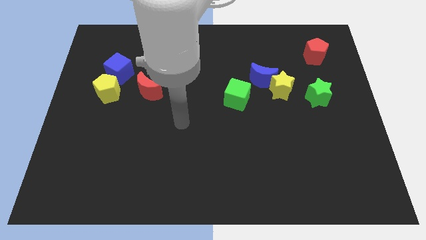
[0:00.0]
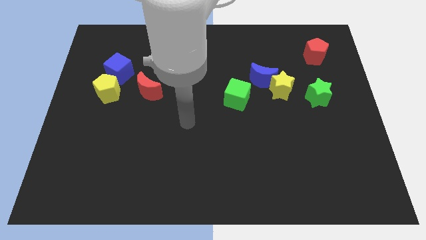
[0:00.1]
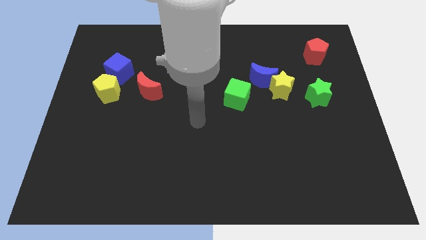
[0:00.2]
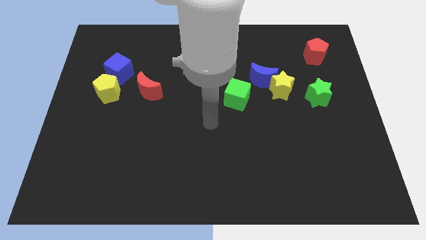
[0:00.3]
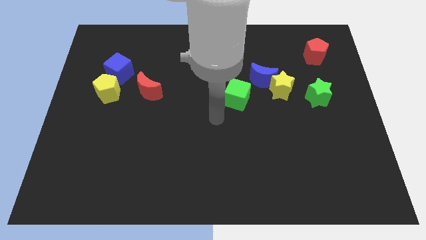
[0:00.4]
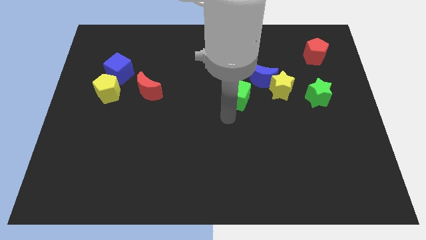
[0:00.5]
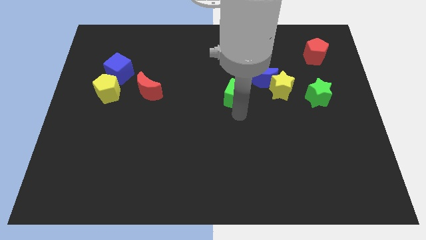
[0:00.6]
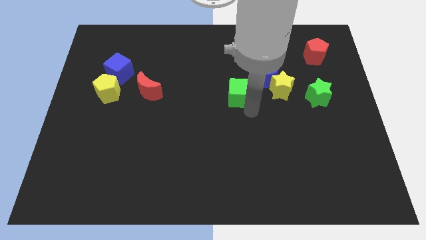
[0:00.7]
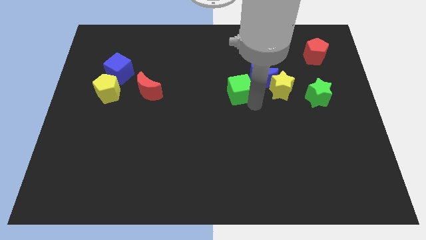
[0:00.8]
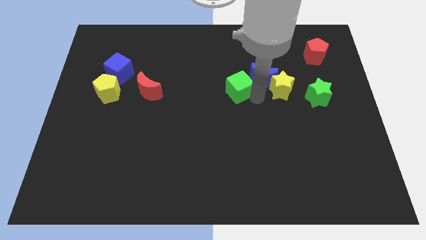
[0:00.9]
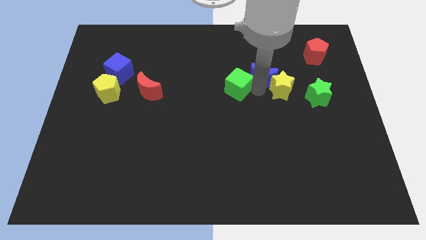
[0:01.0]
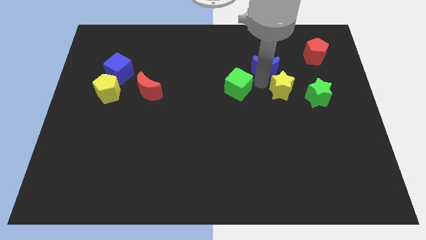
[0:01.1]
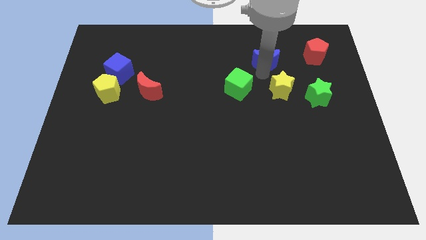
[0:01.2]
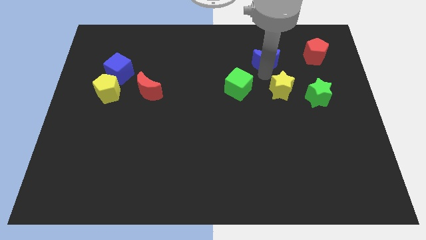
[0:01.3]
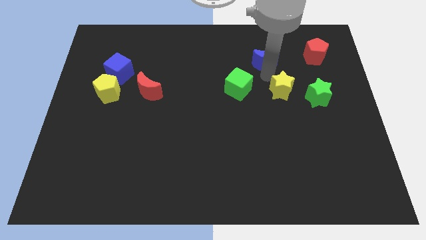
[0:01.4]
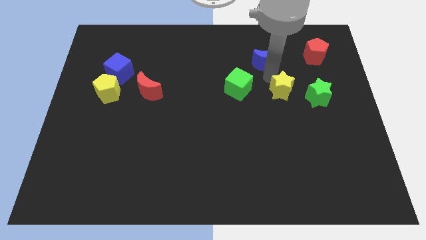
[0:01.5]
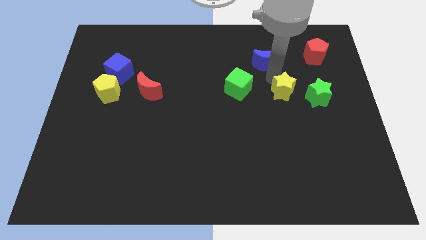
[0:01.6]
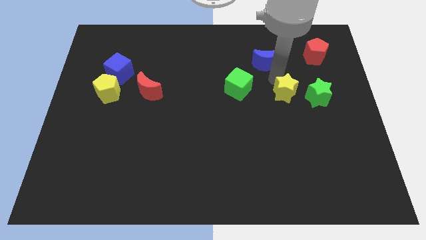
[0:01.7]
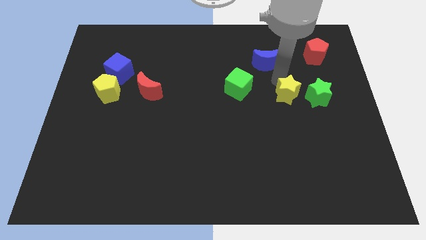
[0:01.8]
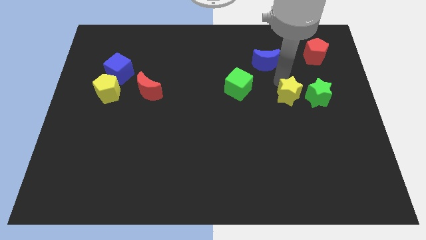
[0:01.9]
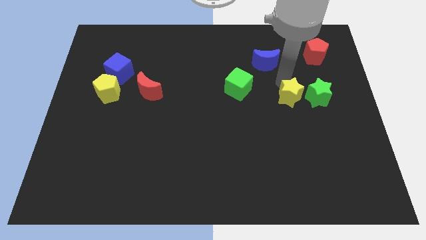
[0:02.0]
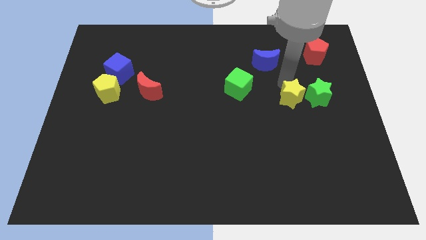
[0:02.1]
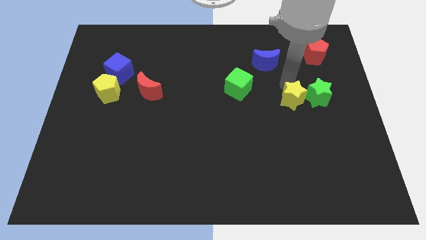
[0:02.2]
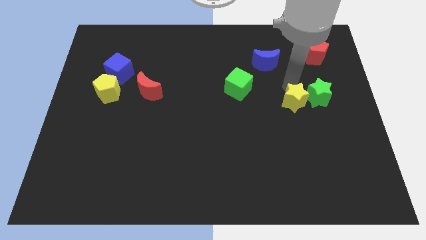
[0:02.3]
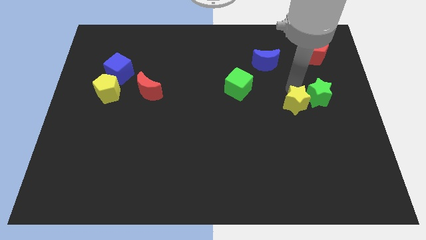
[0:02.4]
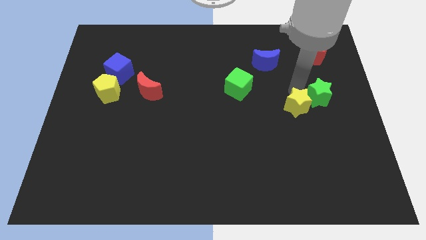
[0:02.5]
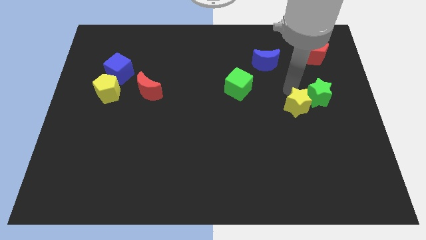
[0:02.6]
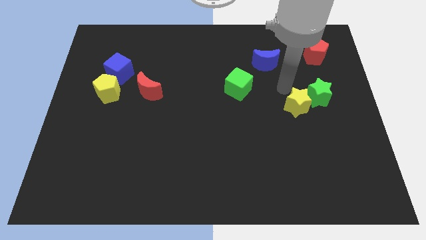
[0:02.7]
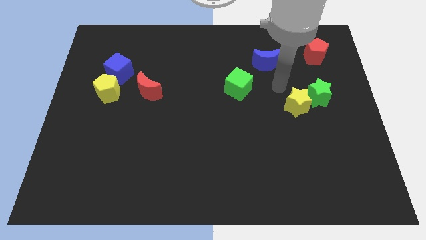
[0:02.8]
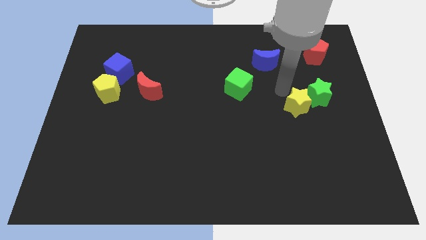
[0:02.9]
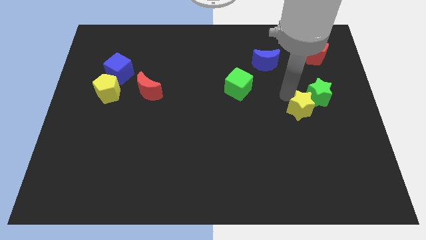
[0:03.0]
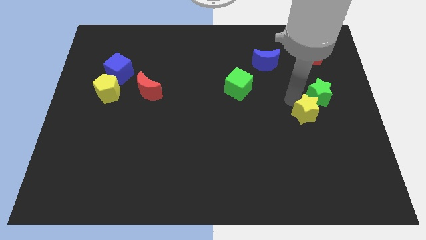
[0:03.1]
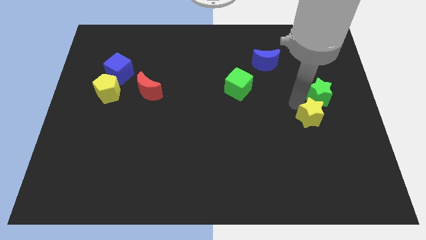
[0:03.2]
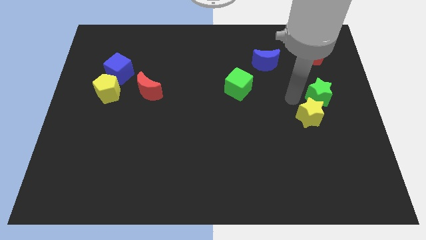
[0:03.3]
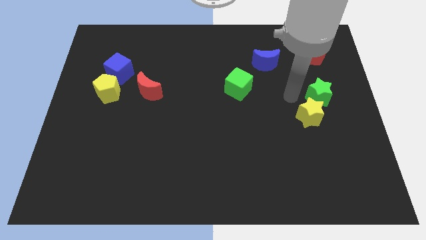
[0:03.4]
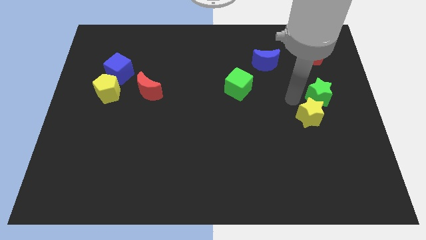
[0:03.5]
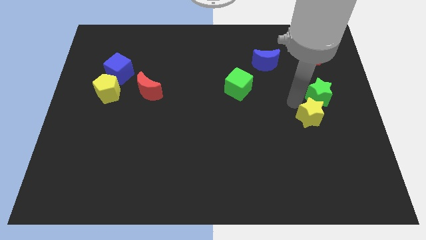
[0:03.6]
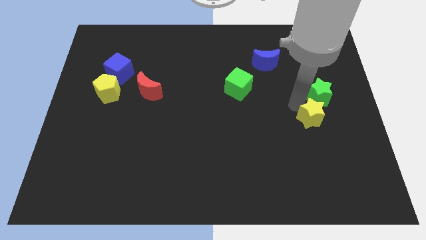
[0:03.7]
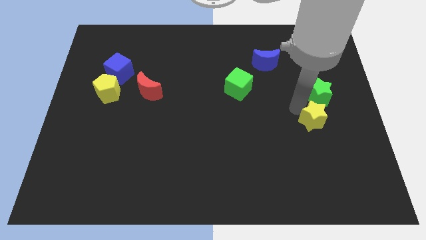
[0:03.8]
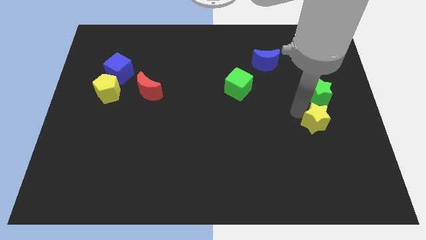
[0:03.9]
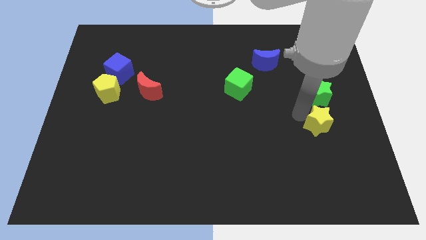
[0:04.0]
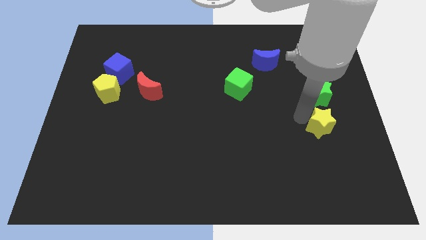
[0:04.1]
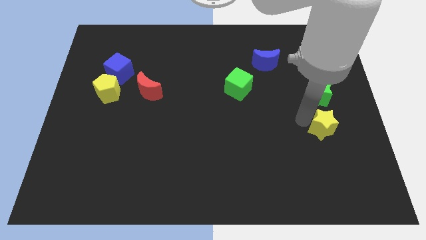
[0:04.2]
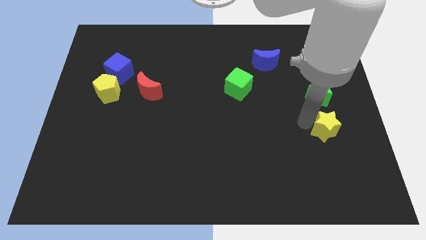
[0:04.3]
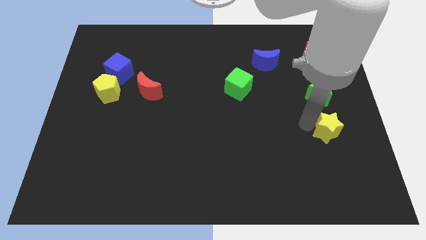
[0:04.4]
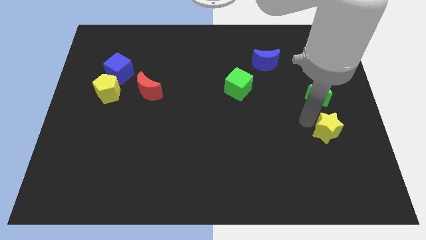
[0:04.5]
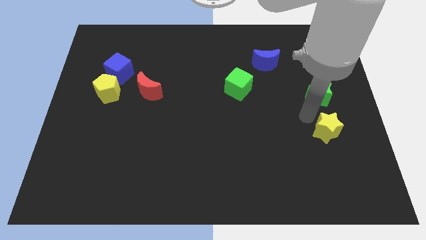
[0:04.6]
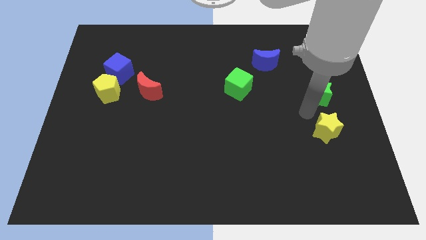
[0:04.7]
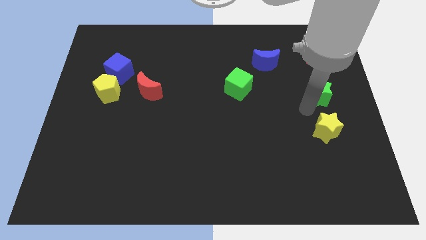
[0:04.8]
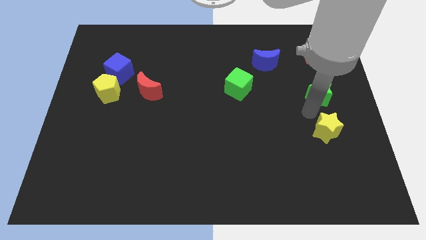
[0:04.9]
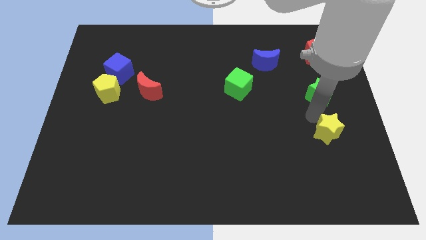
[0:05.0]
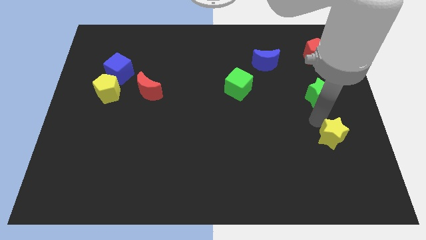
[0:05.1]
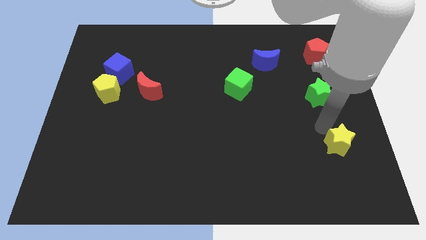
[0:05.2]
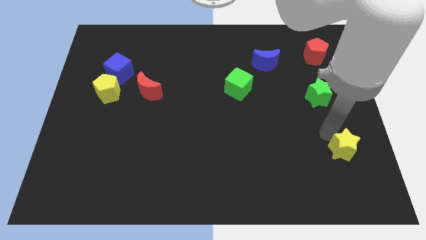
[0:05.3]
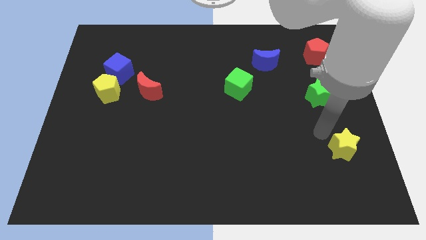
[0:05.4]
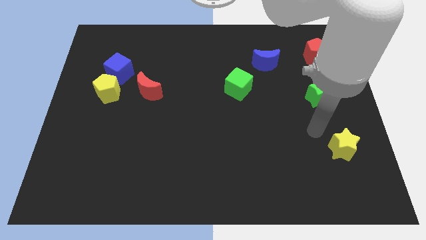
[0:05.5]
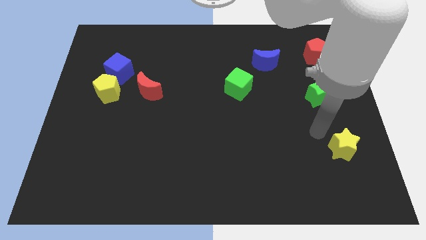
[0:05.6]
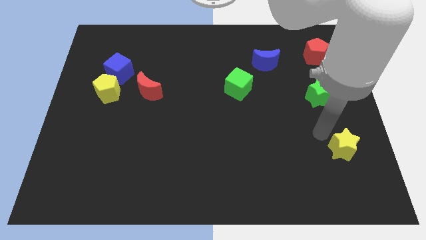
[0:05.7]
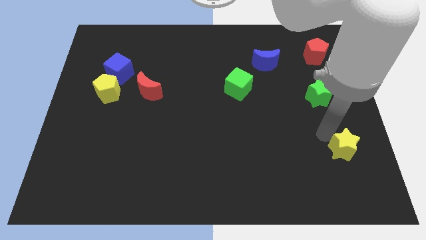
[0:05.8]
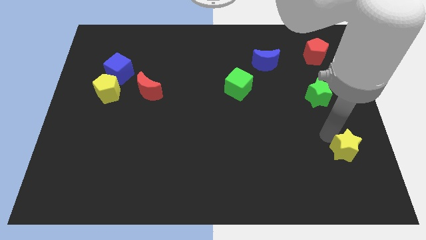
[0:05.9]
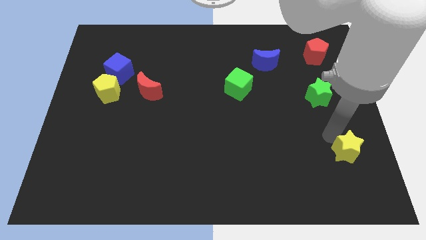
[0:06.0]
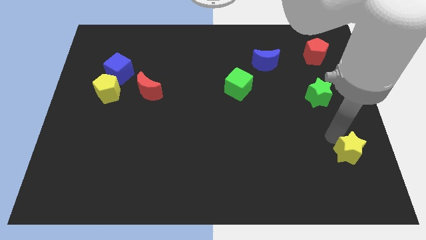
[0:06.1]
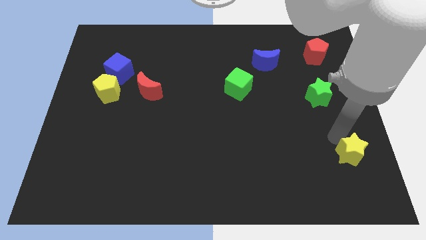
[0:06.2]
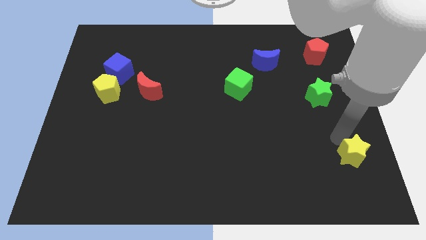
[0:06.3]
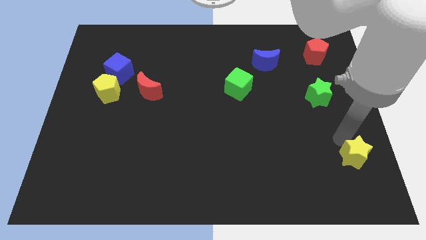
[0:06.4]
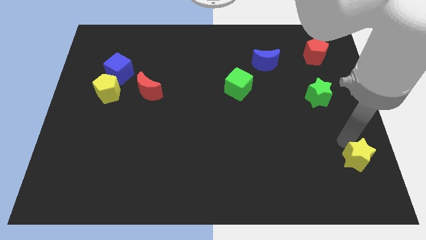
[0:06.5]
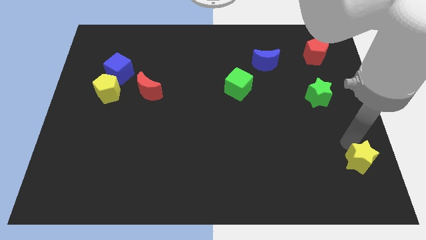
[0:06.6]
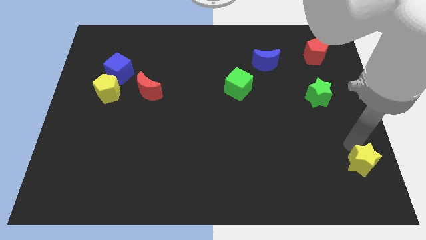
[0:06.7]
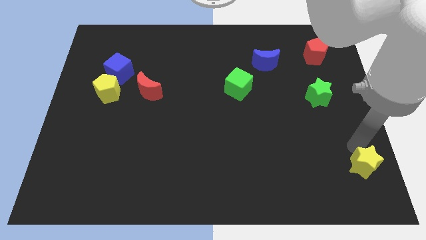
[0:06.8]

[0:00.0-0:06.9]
put the yellow star to the bottom right

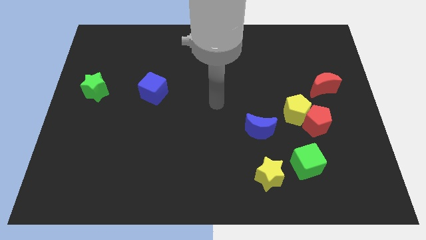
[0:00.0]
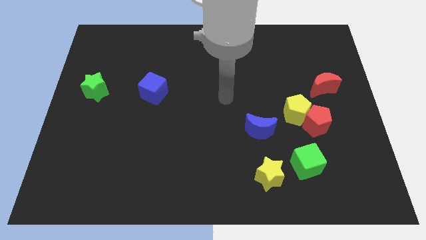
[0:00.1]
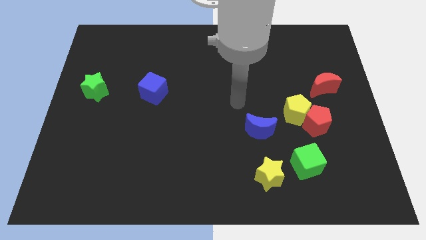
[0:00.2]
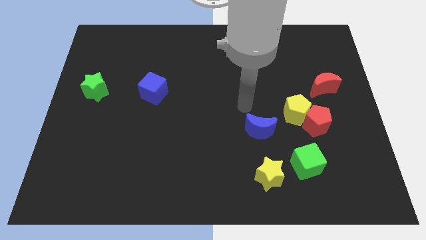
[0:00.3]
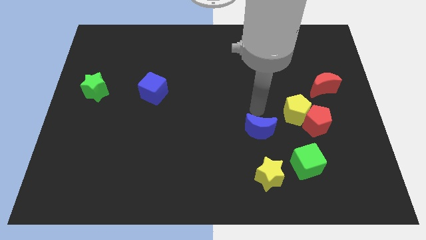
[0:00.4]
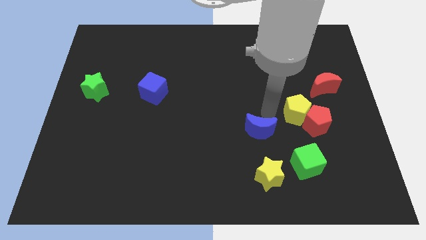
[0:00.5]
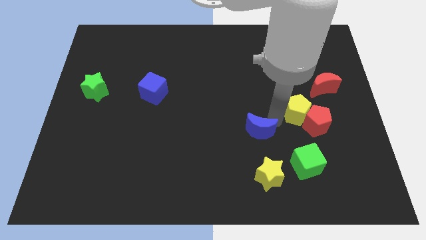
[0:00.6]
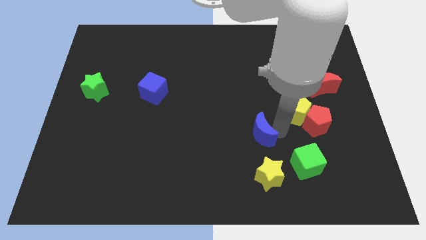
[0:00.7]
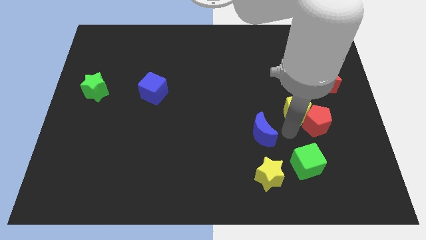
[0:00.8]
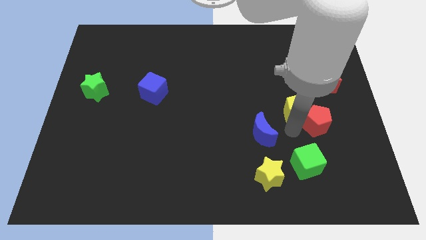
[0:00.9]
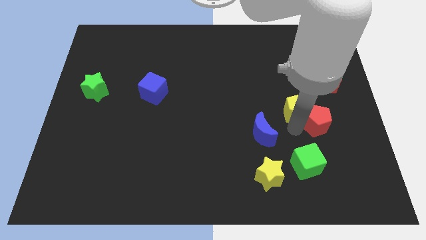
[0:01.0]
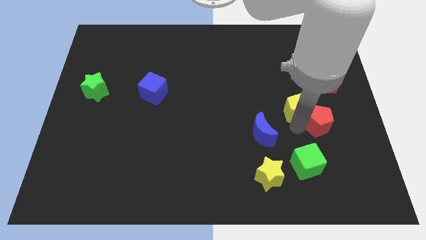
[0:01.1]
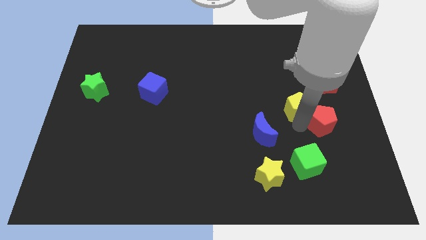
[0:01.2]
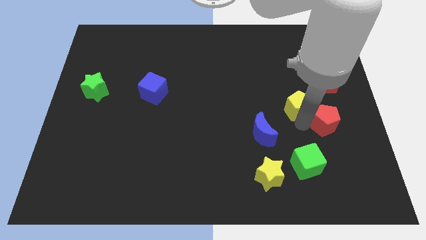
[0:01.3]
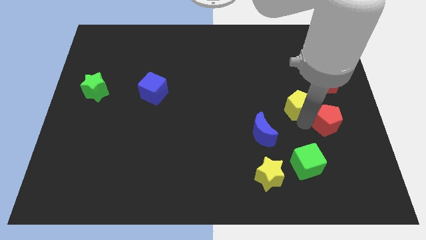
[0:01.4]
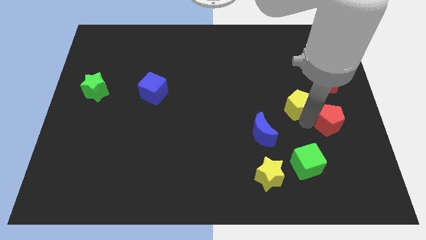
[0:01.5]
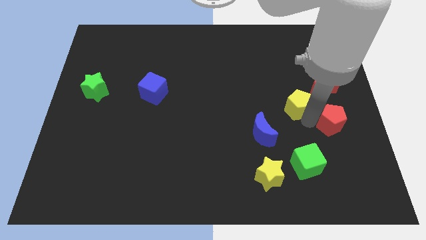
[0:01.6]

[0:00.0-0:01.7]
slide the red pentagon to the right side
